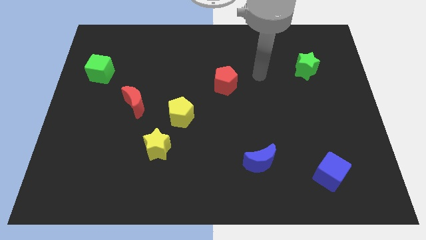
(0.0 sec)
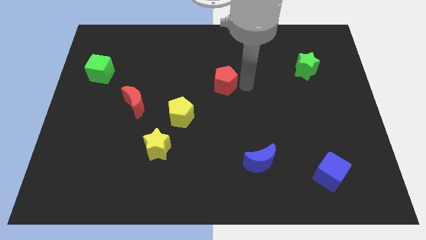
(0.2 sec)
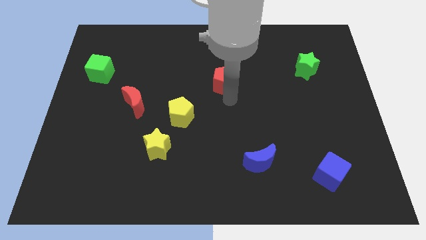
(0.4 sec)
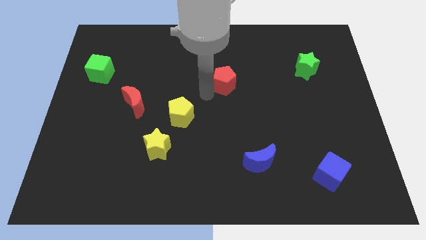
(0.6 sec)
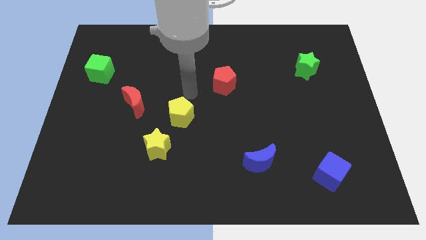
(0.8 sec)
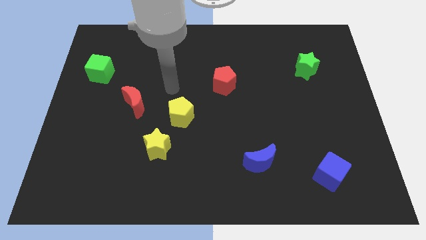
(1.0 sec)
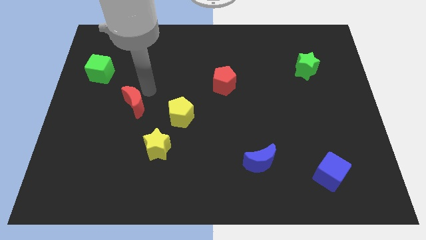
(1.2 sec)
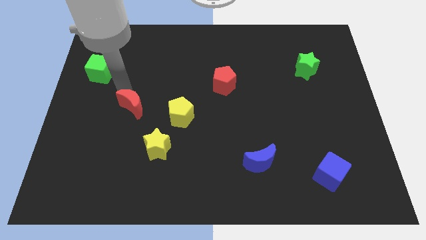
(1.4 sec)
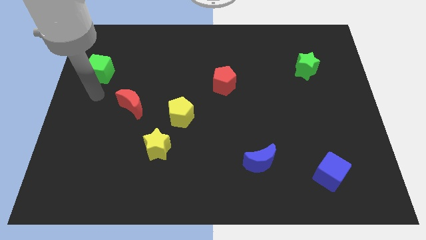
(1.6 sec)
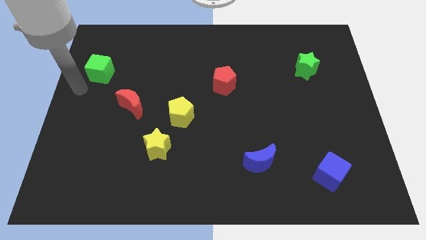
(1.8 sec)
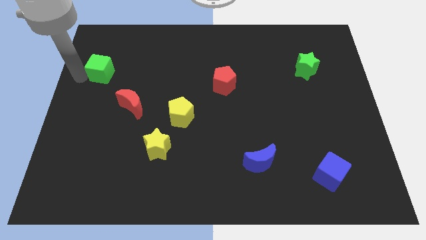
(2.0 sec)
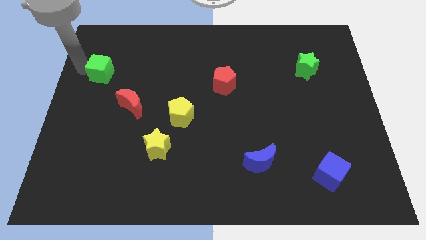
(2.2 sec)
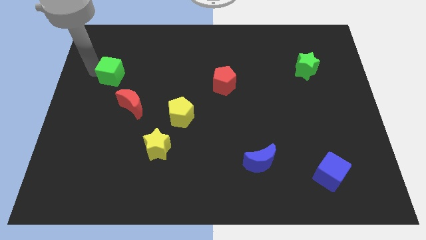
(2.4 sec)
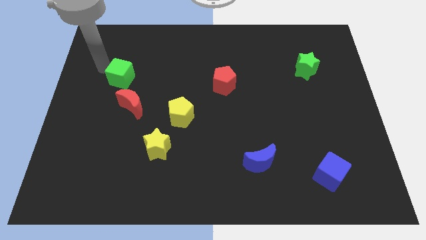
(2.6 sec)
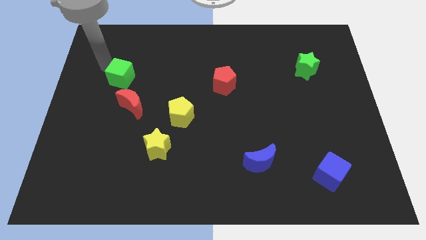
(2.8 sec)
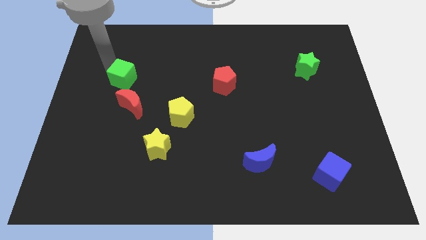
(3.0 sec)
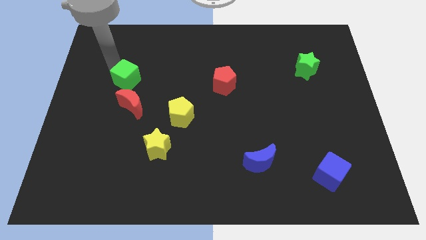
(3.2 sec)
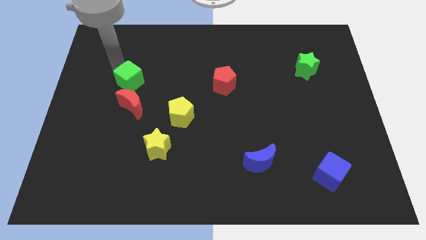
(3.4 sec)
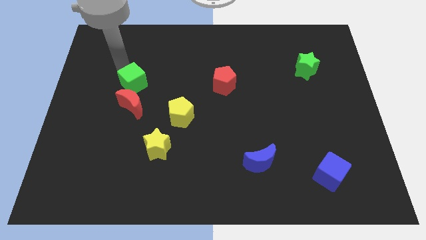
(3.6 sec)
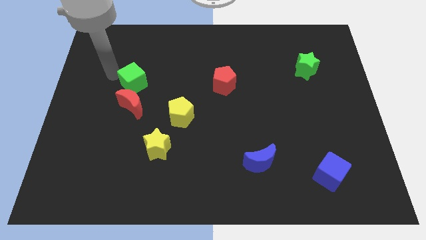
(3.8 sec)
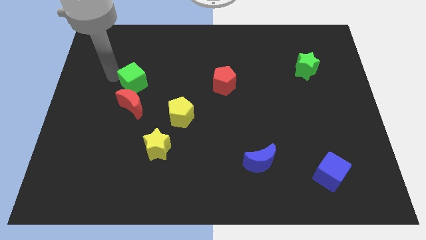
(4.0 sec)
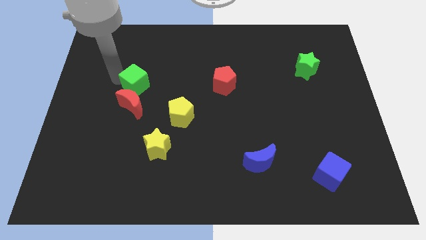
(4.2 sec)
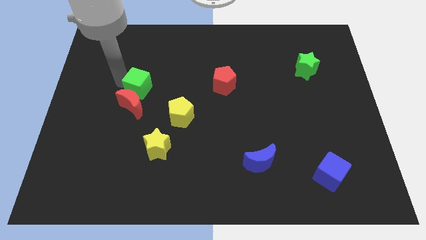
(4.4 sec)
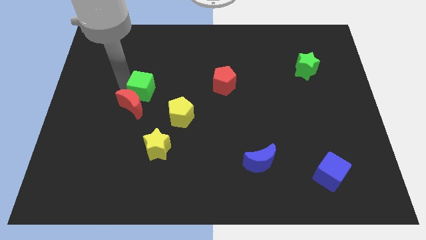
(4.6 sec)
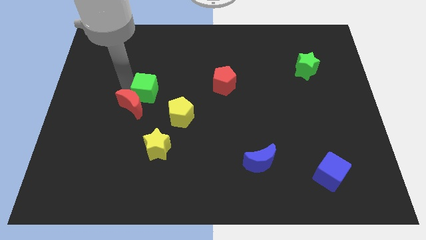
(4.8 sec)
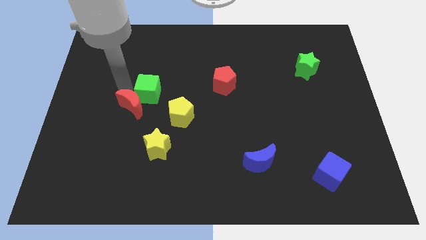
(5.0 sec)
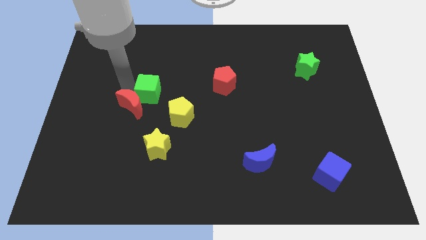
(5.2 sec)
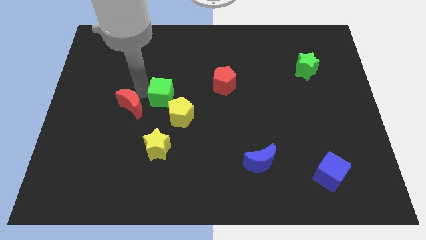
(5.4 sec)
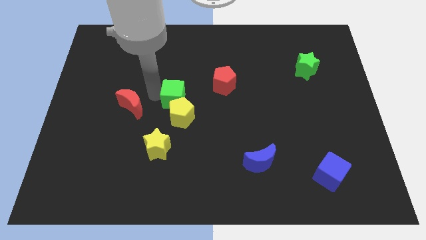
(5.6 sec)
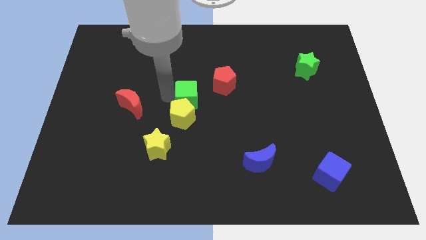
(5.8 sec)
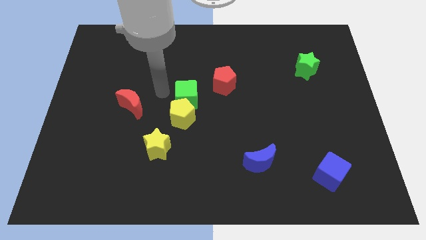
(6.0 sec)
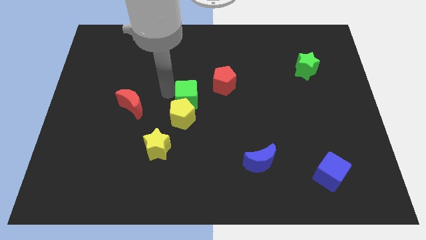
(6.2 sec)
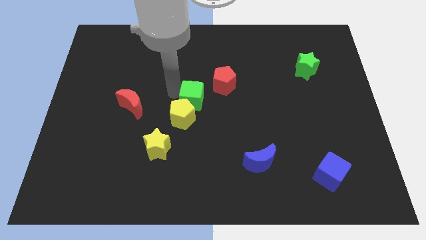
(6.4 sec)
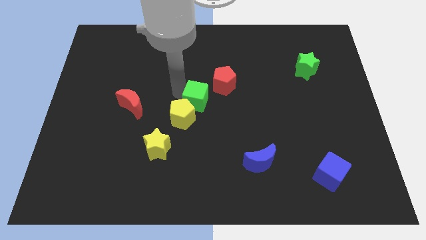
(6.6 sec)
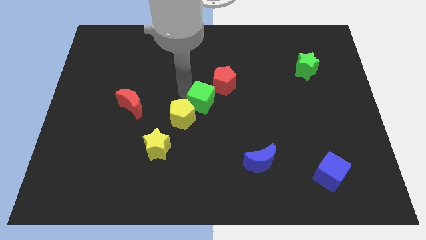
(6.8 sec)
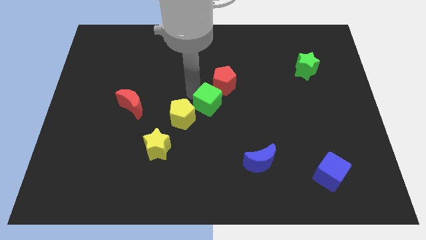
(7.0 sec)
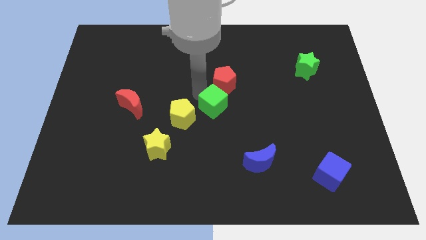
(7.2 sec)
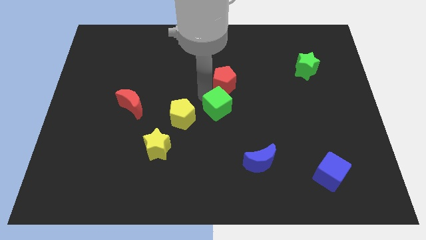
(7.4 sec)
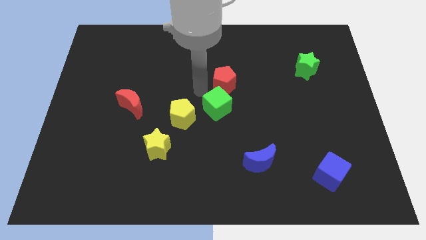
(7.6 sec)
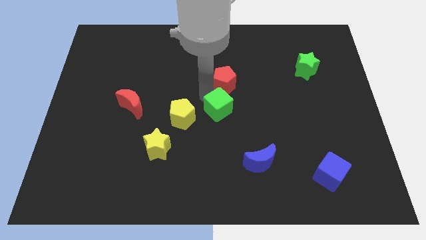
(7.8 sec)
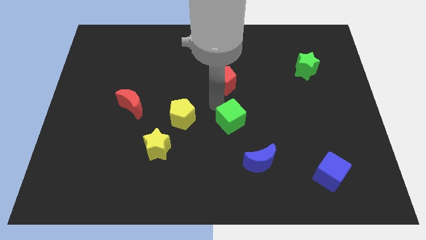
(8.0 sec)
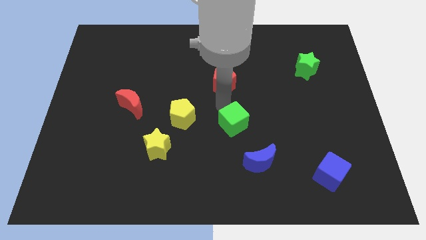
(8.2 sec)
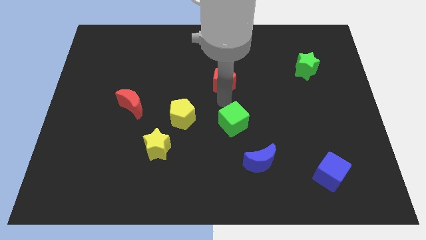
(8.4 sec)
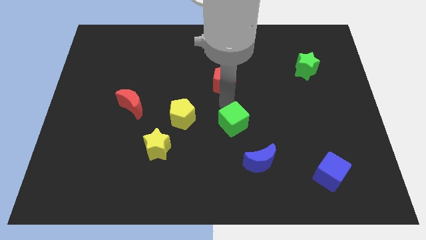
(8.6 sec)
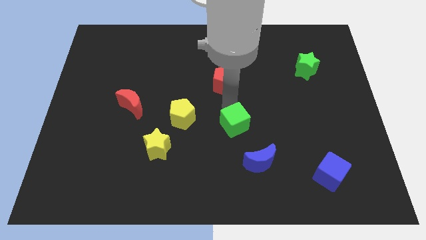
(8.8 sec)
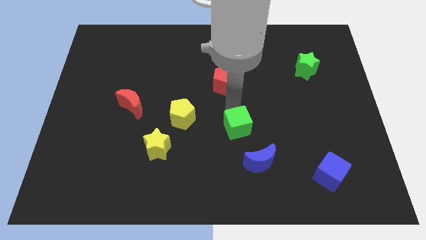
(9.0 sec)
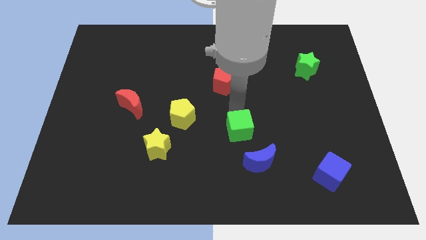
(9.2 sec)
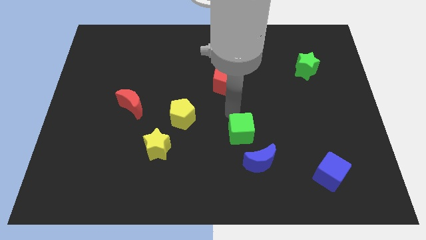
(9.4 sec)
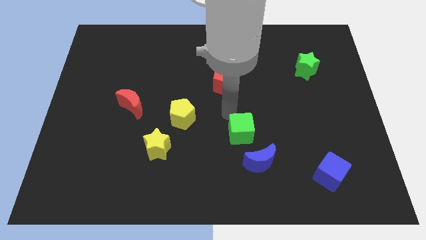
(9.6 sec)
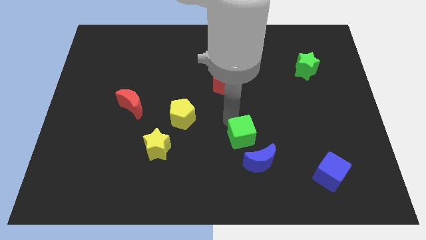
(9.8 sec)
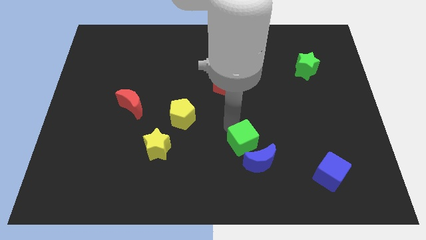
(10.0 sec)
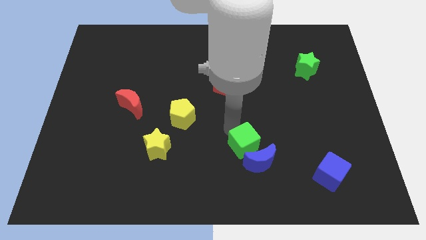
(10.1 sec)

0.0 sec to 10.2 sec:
slide the green cube to the blue moon

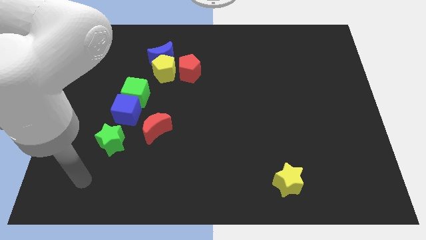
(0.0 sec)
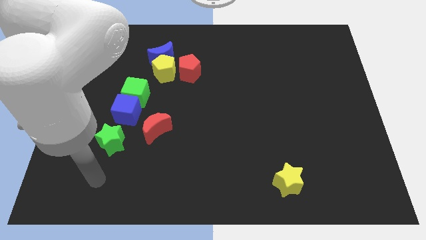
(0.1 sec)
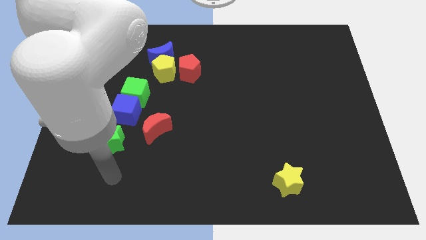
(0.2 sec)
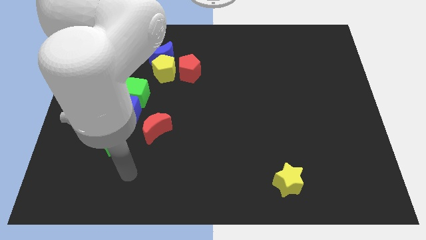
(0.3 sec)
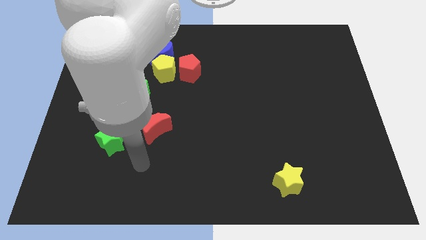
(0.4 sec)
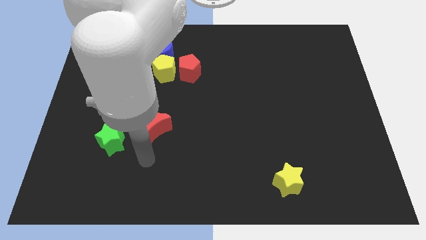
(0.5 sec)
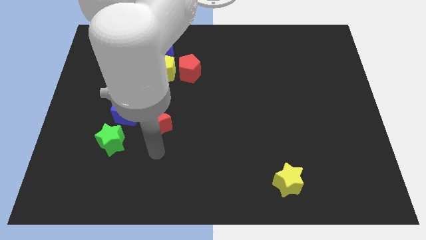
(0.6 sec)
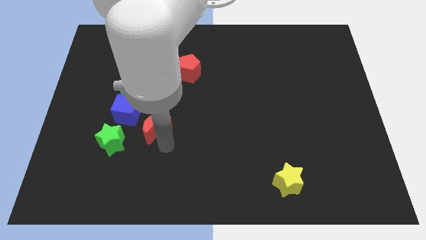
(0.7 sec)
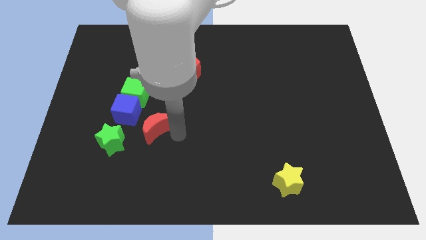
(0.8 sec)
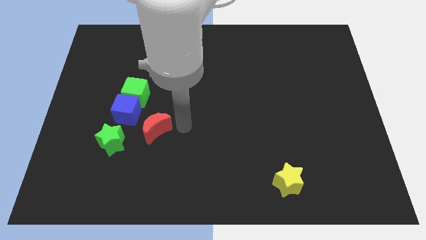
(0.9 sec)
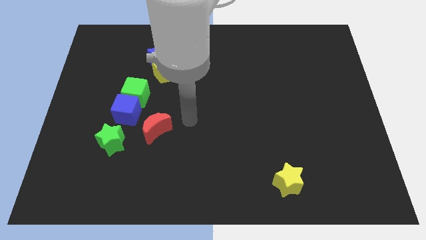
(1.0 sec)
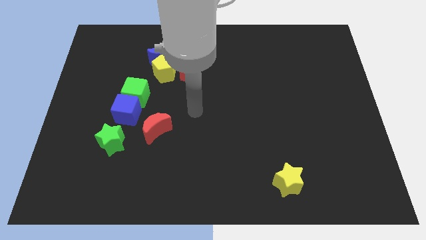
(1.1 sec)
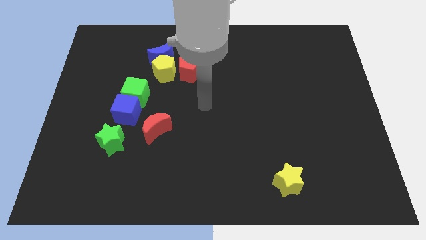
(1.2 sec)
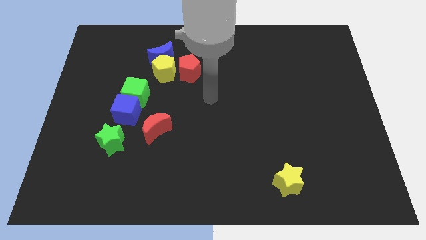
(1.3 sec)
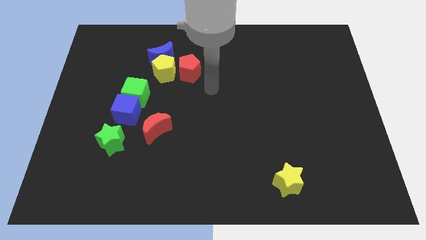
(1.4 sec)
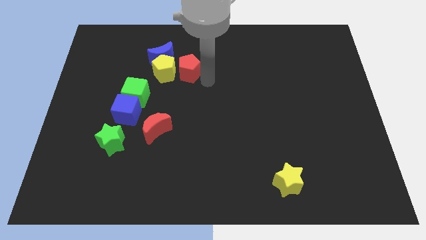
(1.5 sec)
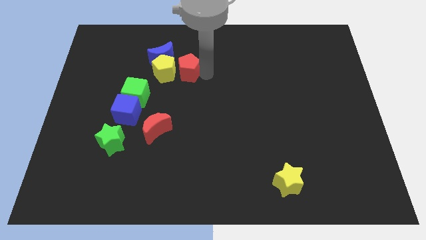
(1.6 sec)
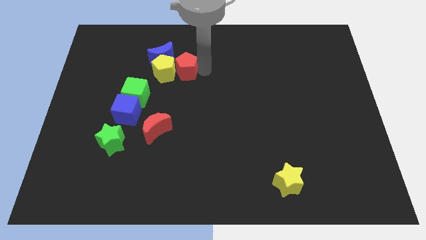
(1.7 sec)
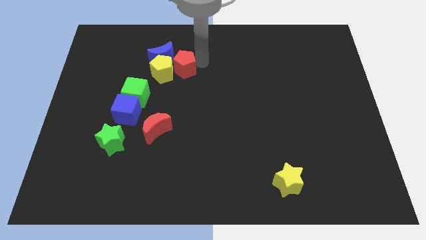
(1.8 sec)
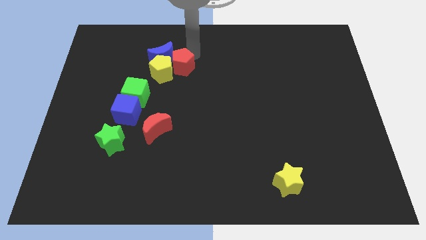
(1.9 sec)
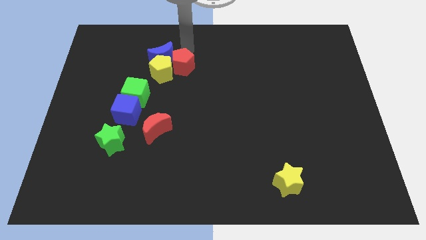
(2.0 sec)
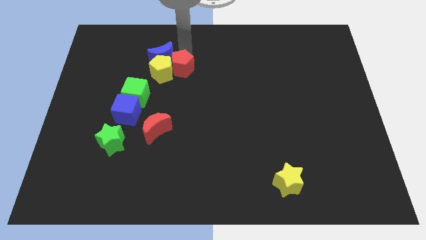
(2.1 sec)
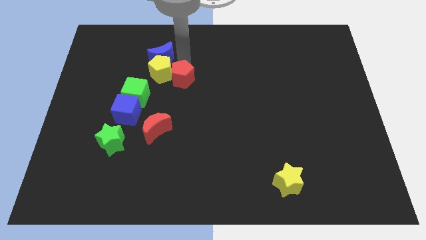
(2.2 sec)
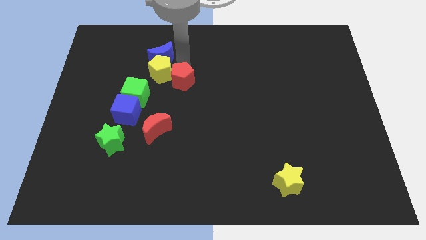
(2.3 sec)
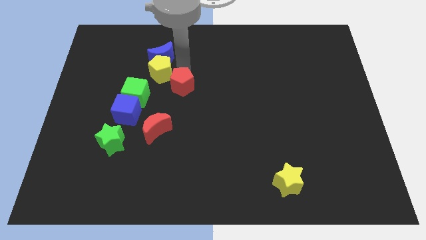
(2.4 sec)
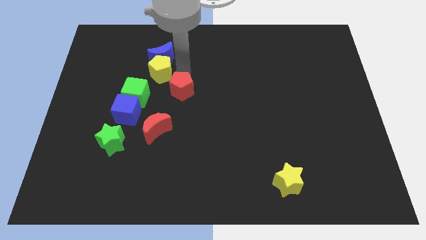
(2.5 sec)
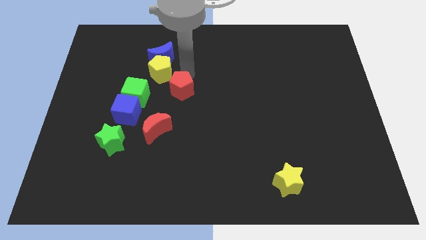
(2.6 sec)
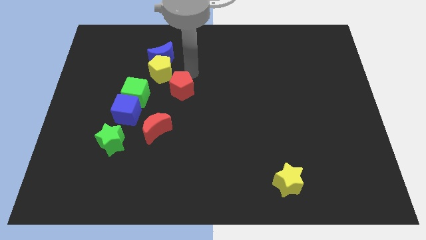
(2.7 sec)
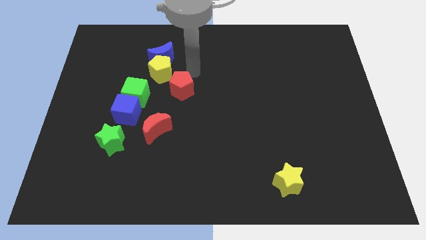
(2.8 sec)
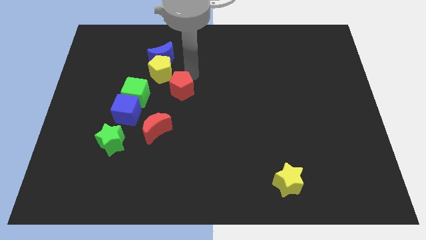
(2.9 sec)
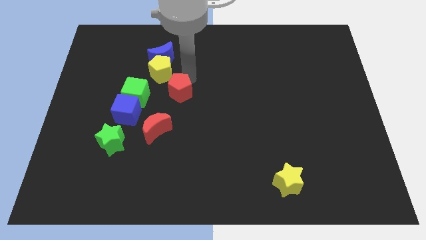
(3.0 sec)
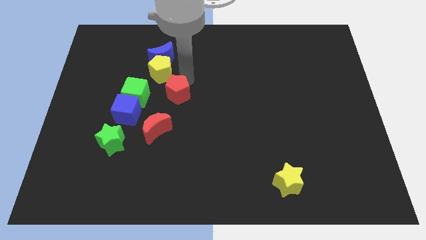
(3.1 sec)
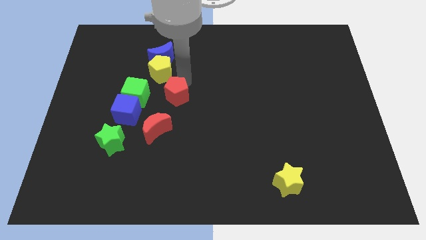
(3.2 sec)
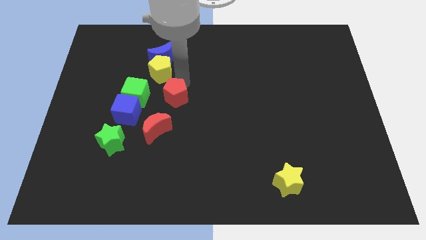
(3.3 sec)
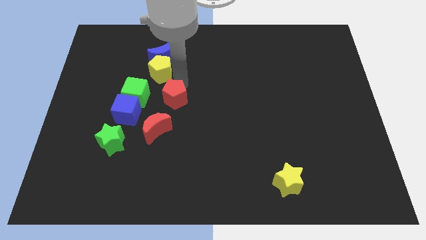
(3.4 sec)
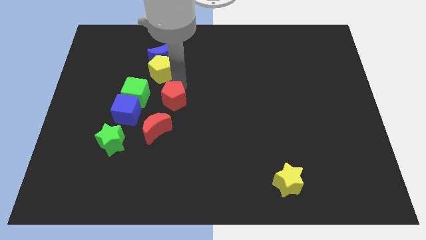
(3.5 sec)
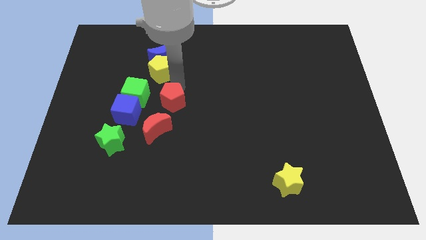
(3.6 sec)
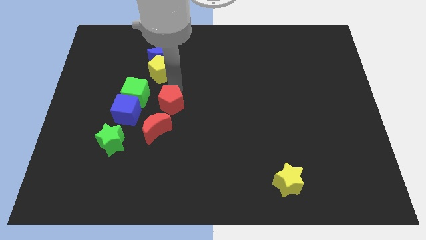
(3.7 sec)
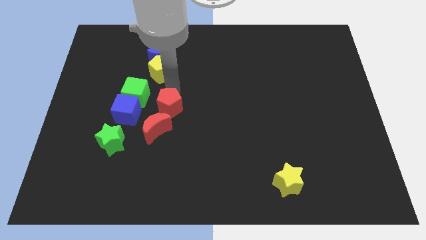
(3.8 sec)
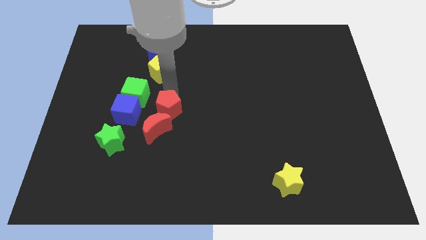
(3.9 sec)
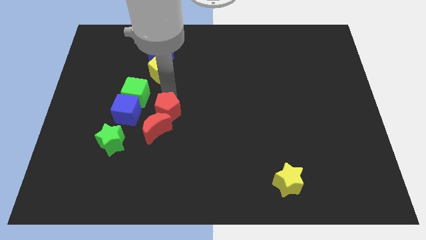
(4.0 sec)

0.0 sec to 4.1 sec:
push the red pentagon next to the red moon
